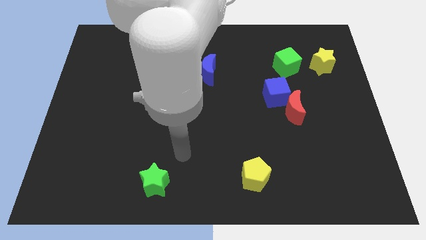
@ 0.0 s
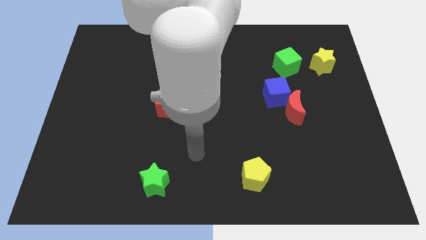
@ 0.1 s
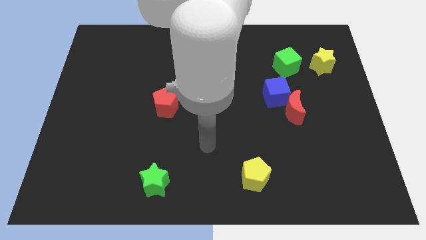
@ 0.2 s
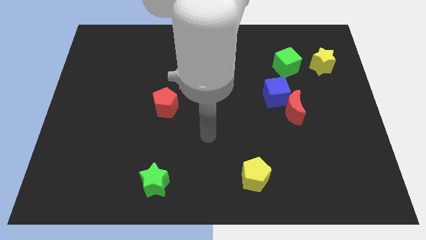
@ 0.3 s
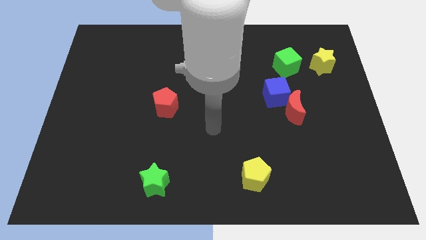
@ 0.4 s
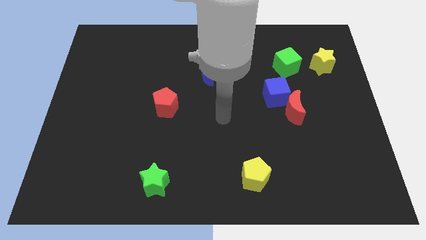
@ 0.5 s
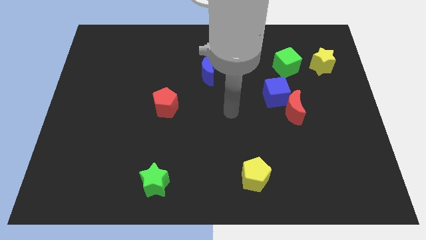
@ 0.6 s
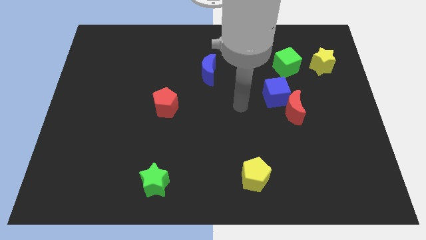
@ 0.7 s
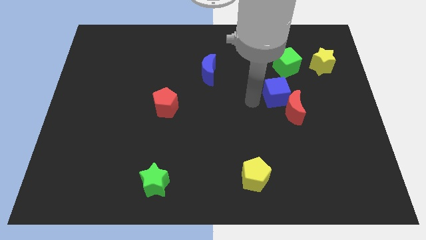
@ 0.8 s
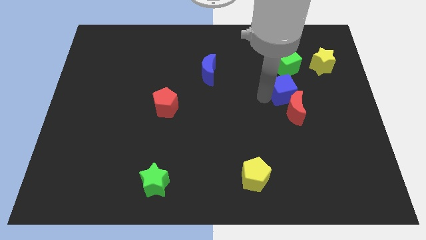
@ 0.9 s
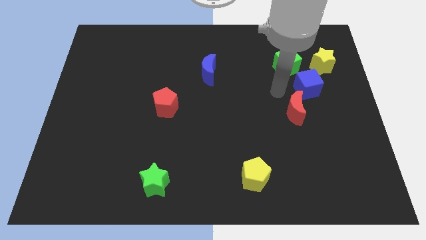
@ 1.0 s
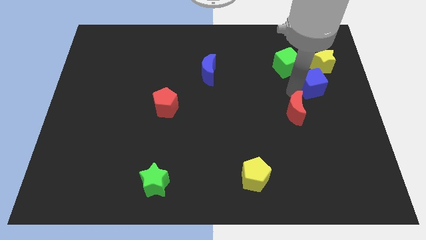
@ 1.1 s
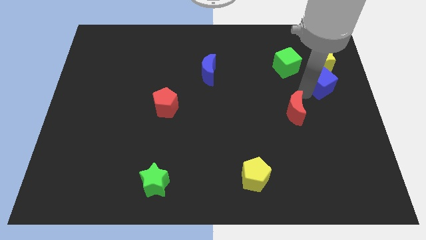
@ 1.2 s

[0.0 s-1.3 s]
separate the red moon from the blue cube

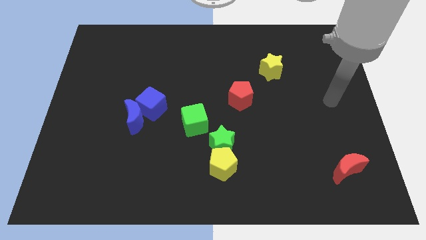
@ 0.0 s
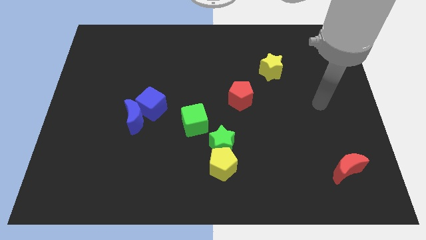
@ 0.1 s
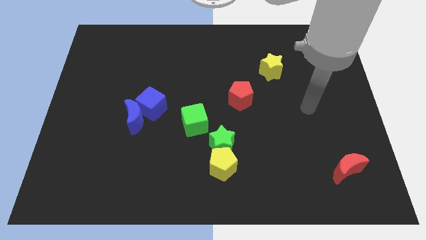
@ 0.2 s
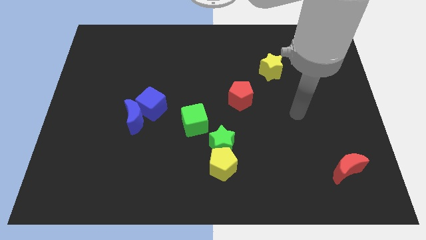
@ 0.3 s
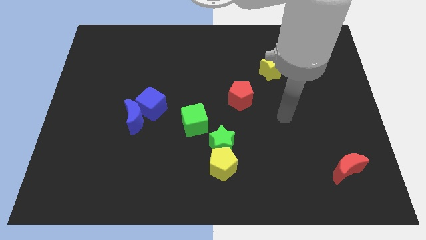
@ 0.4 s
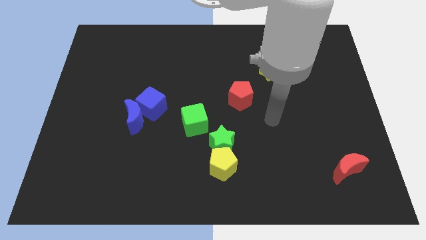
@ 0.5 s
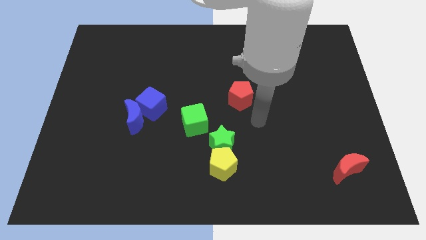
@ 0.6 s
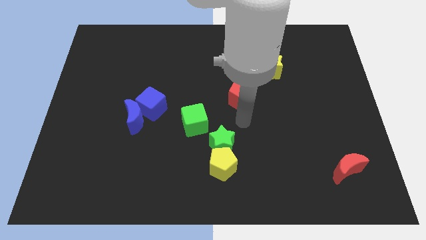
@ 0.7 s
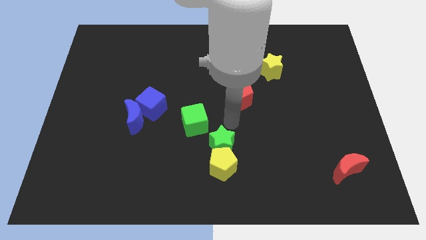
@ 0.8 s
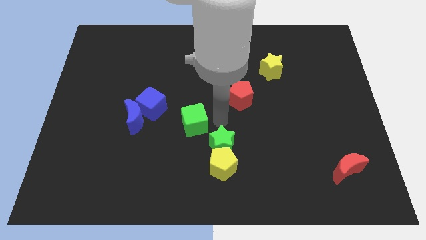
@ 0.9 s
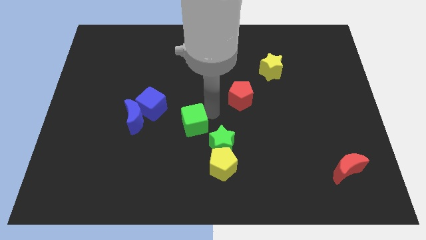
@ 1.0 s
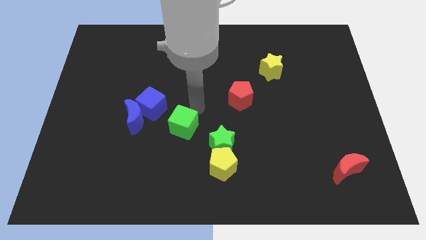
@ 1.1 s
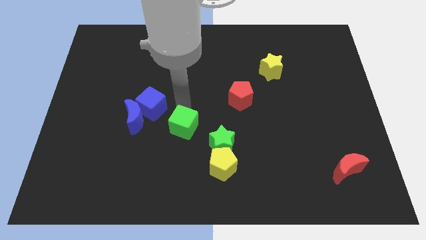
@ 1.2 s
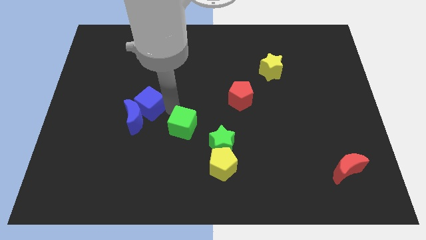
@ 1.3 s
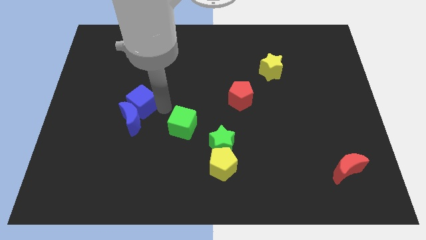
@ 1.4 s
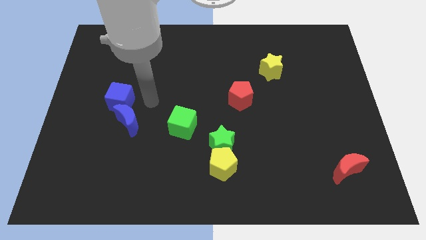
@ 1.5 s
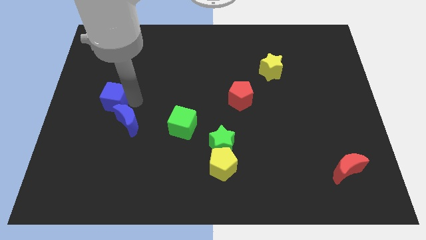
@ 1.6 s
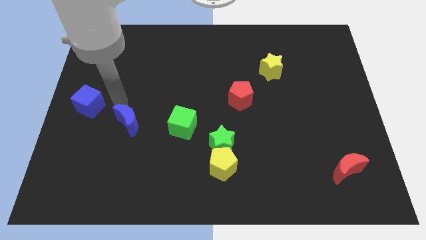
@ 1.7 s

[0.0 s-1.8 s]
move the blue moon away from the blue cube

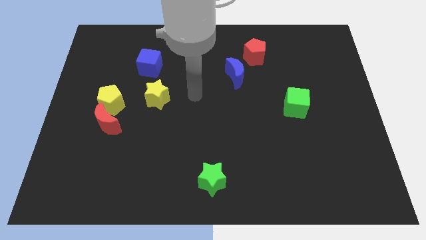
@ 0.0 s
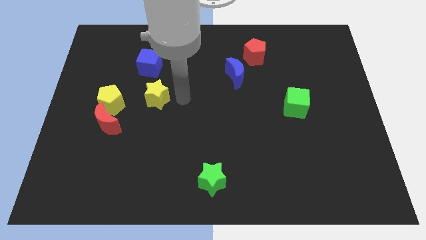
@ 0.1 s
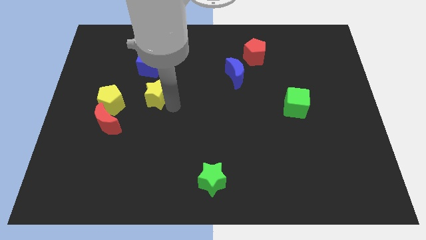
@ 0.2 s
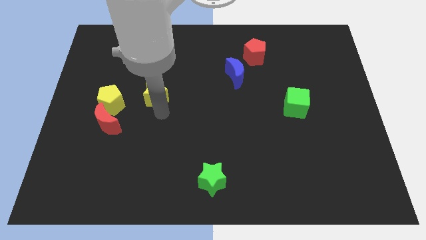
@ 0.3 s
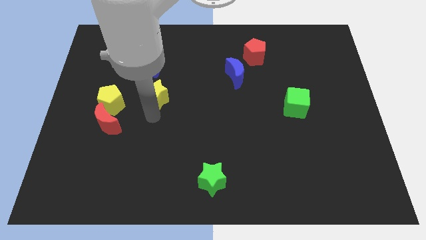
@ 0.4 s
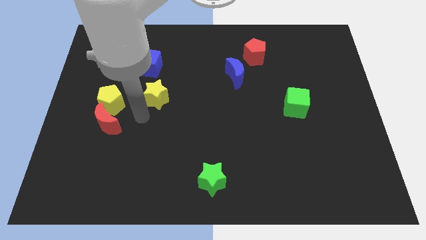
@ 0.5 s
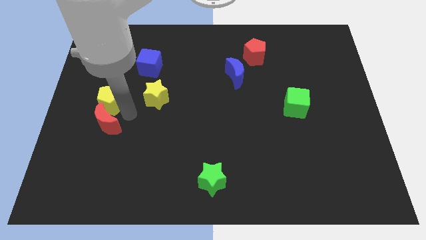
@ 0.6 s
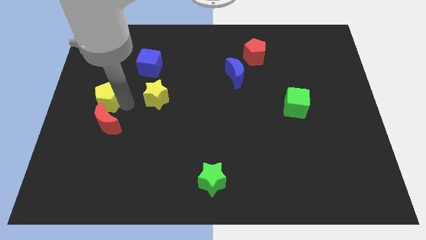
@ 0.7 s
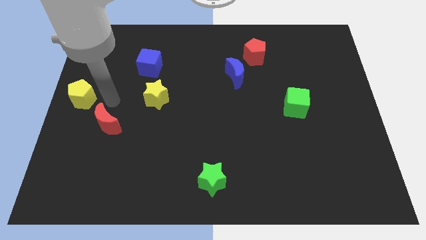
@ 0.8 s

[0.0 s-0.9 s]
move the red moon away from the yellow pentagon

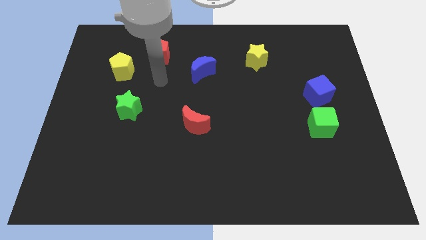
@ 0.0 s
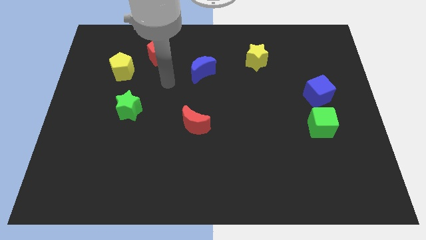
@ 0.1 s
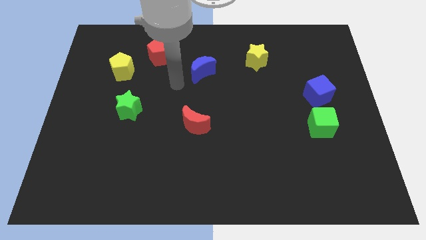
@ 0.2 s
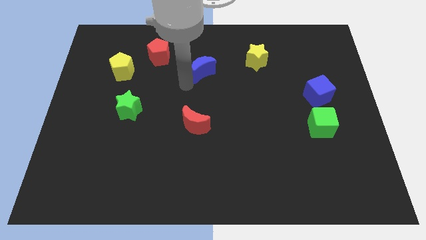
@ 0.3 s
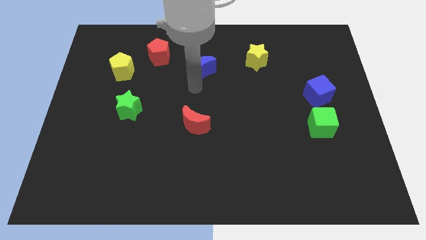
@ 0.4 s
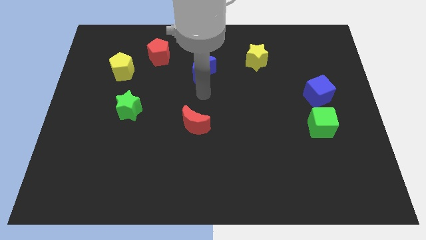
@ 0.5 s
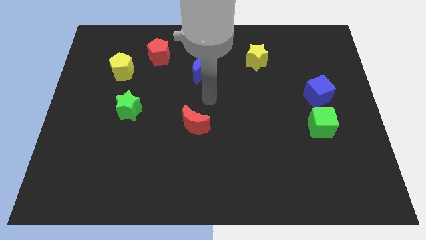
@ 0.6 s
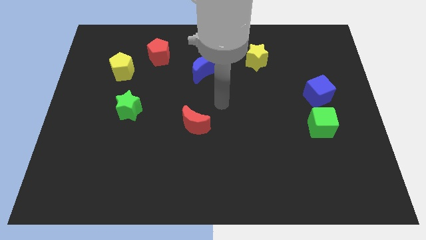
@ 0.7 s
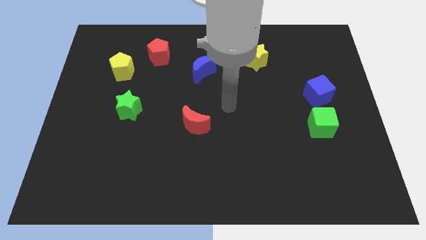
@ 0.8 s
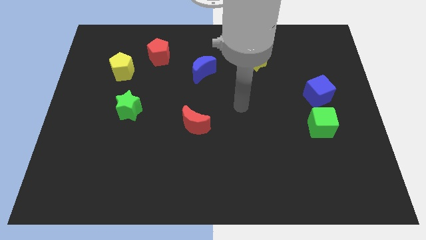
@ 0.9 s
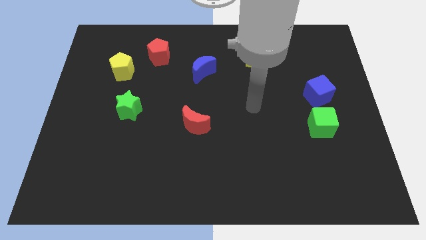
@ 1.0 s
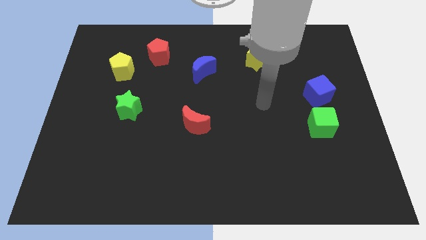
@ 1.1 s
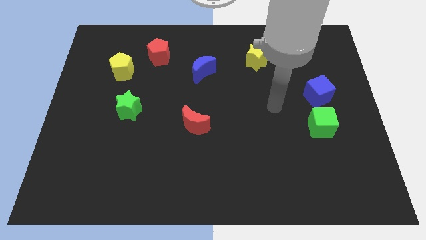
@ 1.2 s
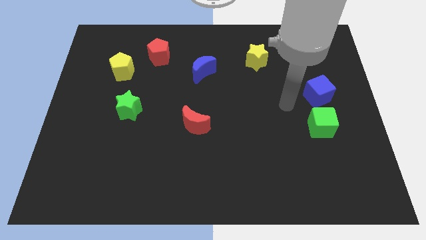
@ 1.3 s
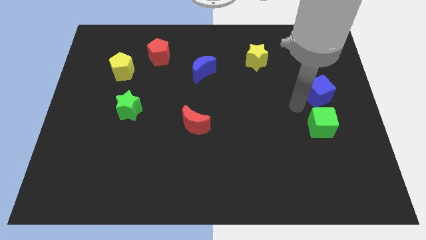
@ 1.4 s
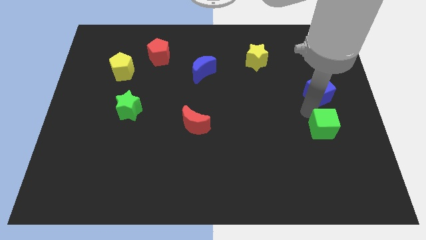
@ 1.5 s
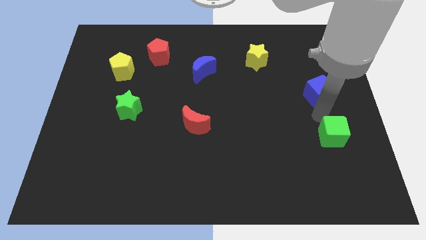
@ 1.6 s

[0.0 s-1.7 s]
move the blue cube away from the green cube

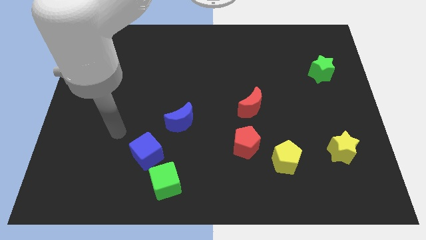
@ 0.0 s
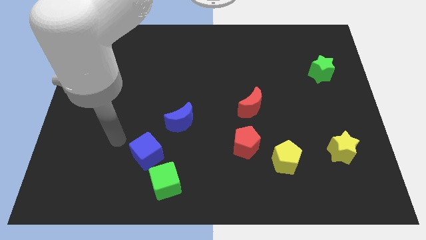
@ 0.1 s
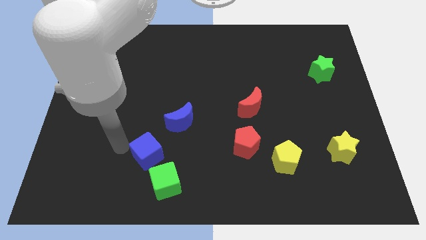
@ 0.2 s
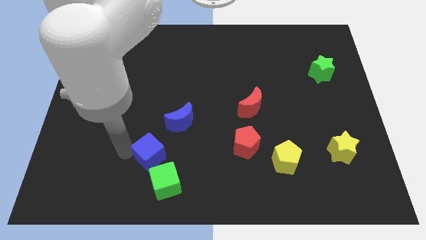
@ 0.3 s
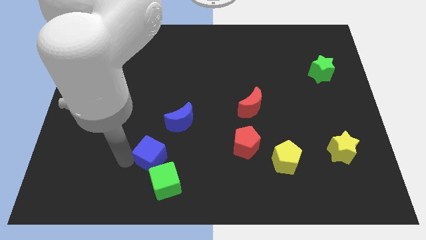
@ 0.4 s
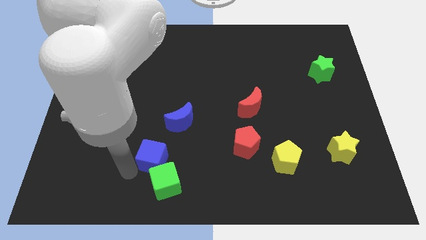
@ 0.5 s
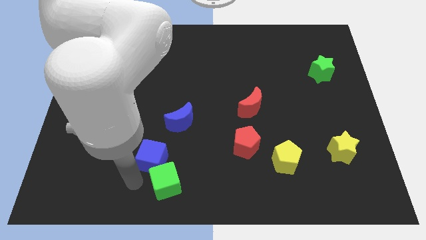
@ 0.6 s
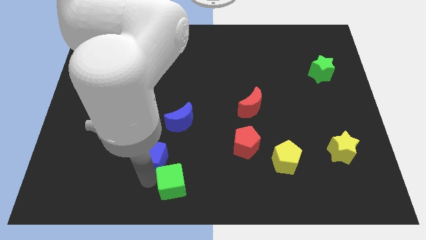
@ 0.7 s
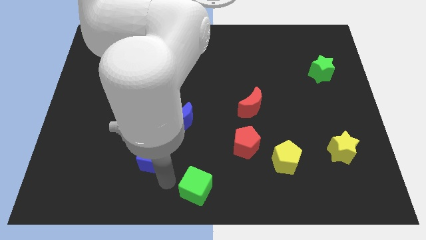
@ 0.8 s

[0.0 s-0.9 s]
separate the blue cube from the green cube

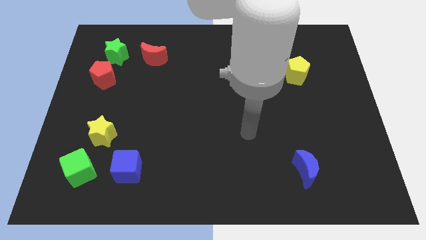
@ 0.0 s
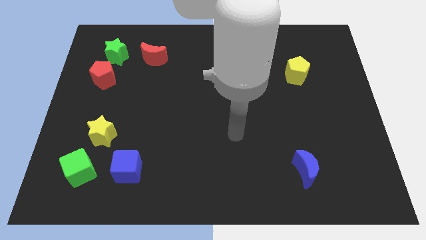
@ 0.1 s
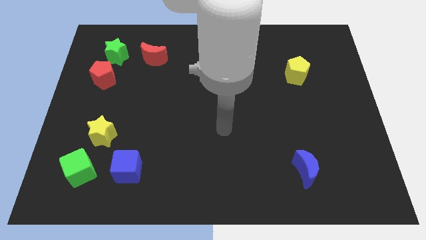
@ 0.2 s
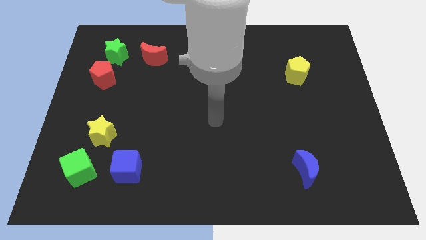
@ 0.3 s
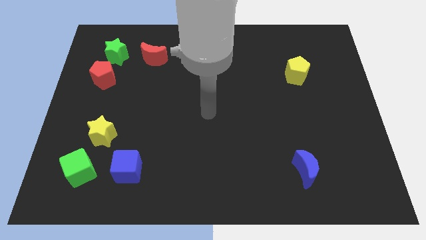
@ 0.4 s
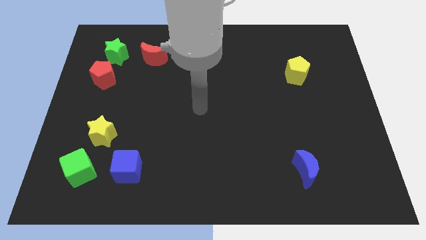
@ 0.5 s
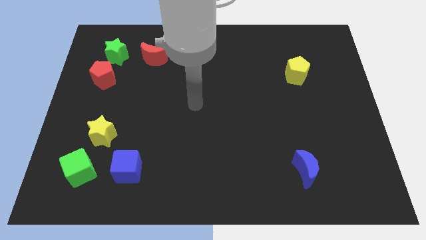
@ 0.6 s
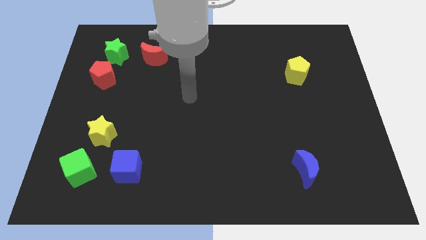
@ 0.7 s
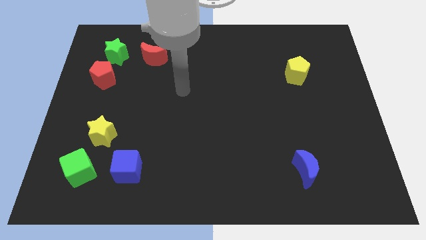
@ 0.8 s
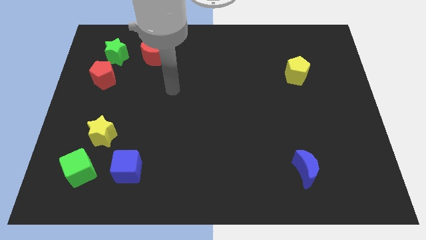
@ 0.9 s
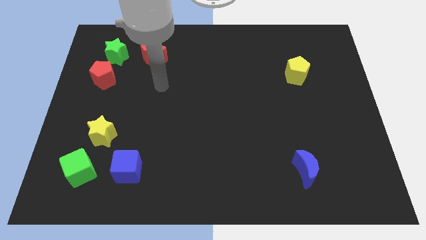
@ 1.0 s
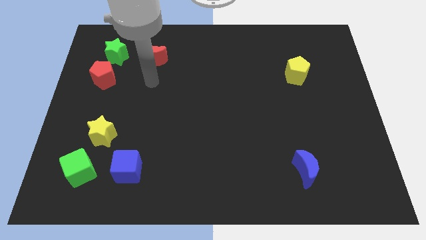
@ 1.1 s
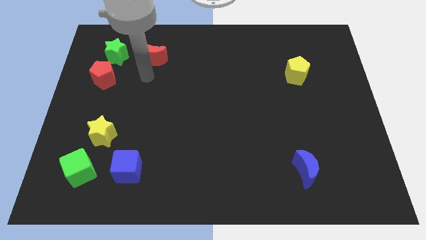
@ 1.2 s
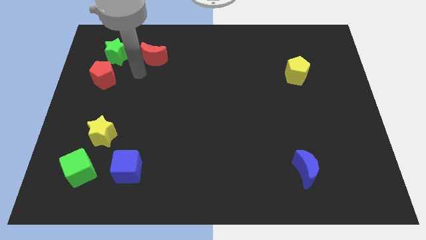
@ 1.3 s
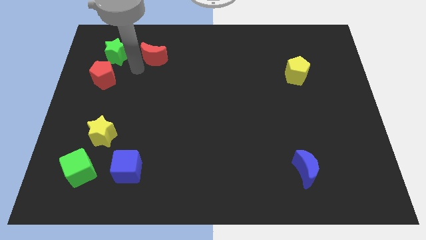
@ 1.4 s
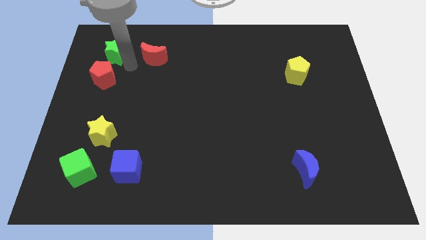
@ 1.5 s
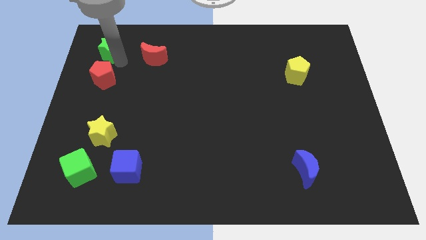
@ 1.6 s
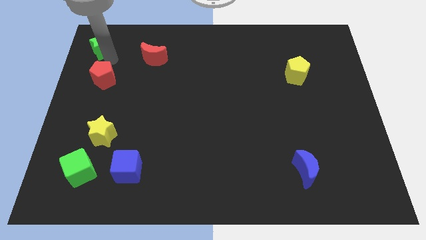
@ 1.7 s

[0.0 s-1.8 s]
pull the red pentagon apart from the green star

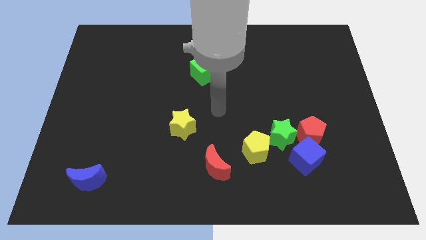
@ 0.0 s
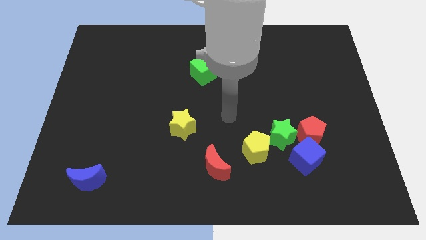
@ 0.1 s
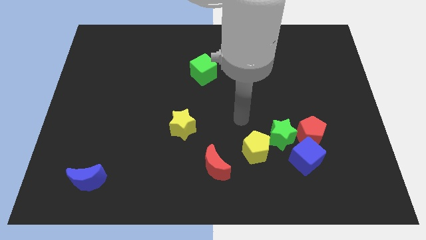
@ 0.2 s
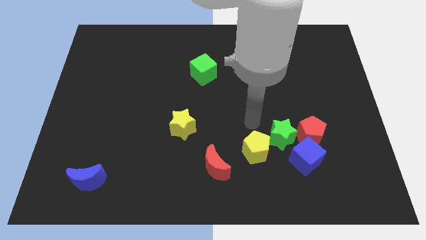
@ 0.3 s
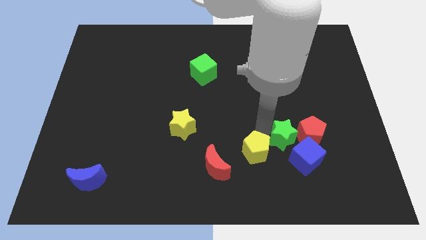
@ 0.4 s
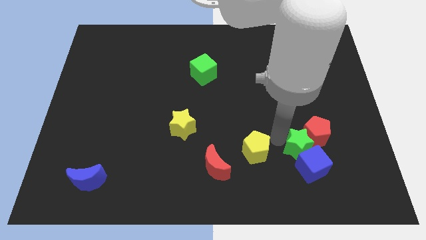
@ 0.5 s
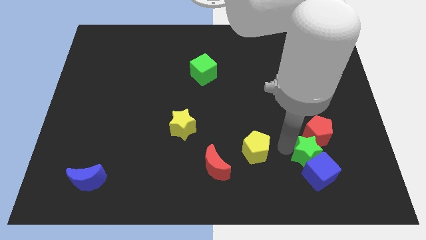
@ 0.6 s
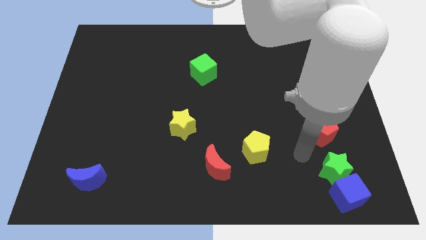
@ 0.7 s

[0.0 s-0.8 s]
move the red pentagon away from the blue cube and green star

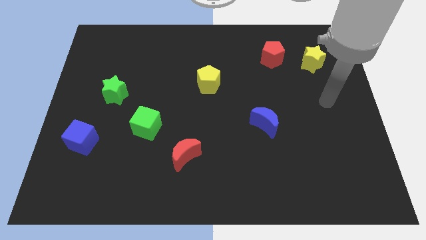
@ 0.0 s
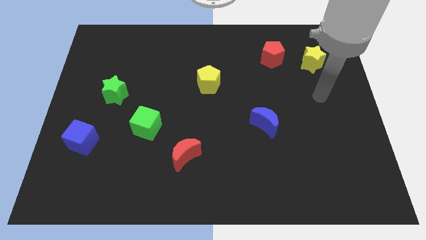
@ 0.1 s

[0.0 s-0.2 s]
pull the red pentagon apart from the yellow star
